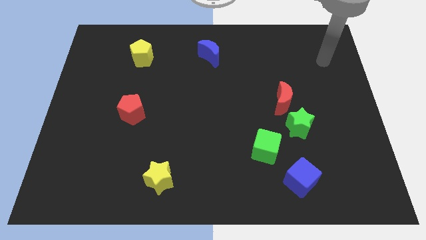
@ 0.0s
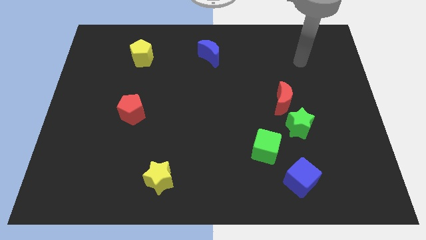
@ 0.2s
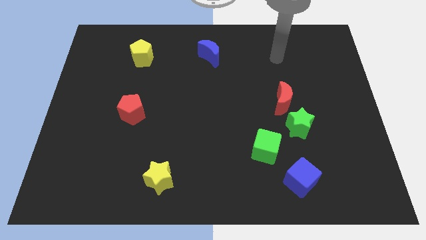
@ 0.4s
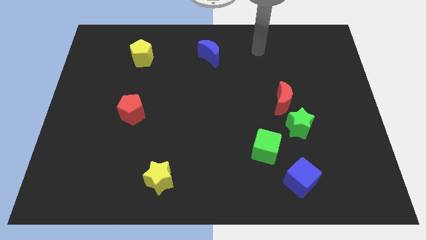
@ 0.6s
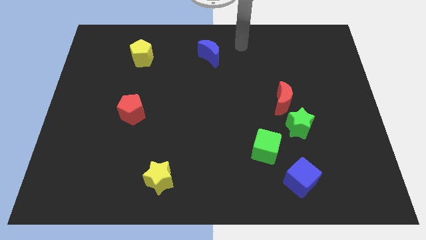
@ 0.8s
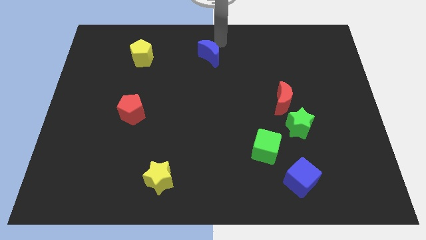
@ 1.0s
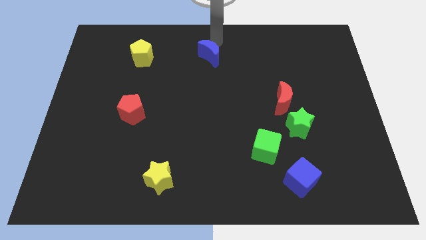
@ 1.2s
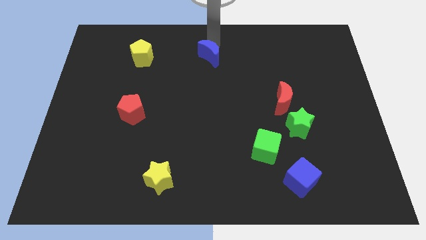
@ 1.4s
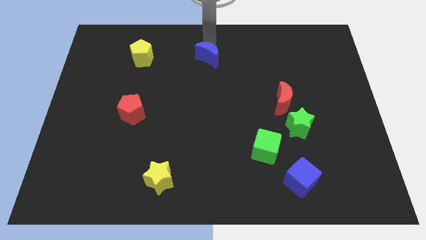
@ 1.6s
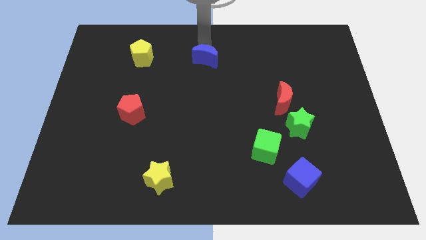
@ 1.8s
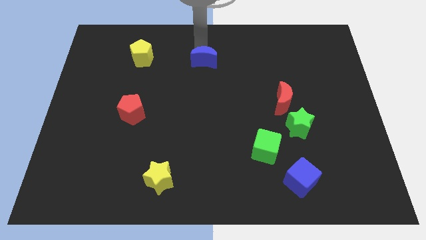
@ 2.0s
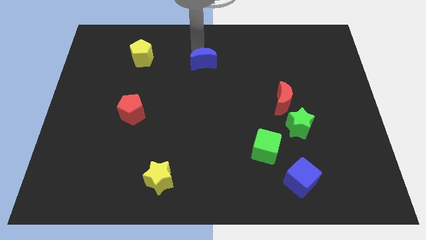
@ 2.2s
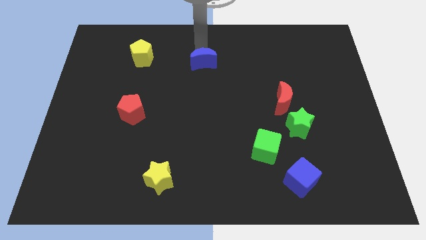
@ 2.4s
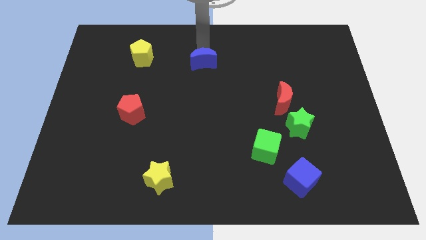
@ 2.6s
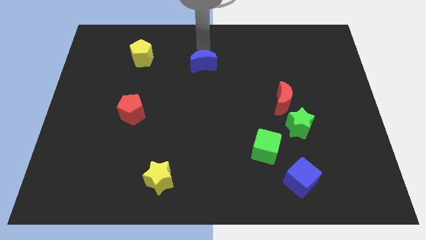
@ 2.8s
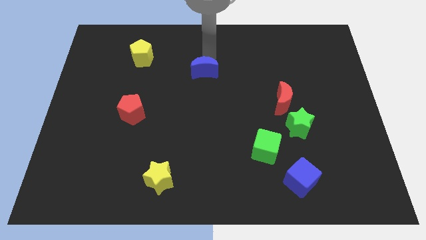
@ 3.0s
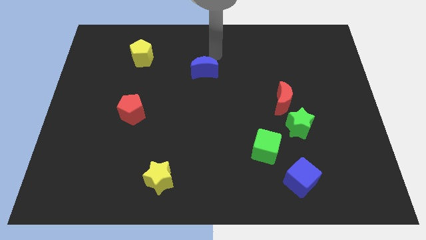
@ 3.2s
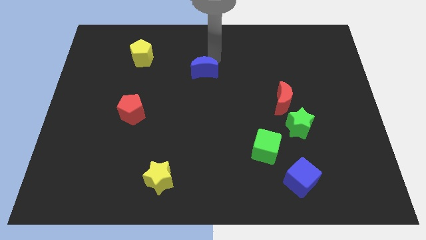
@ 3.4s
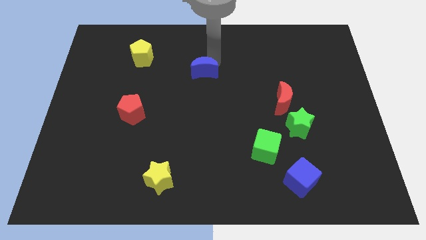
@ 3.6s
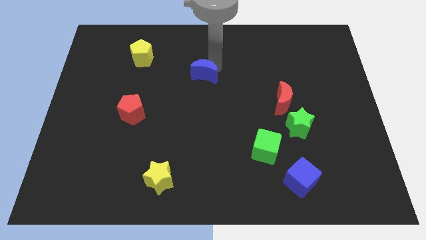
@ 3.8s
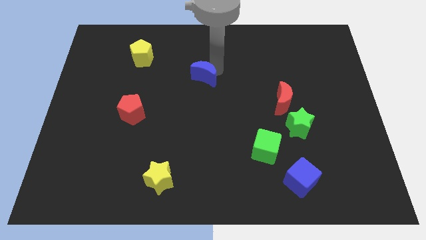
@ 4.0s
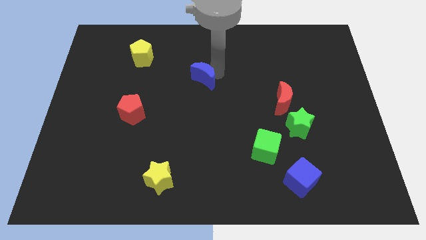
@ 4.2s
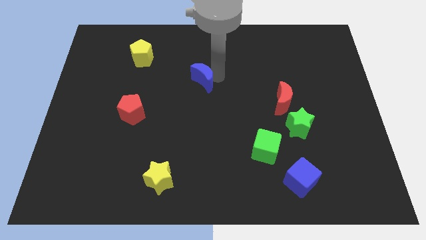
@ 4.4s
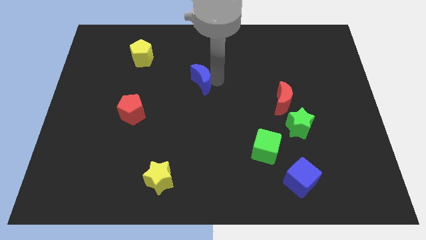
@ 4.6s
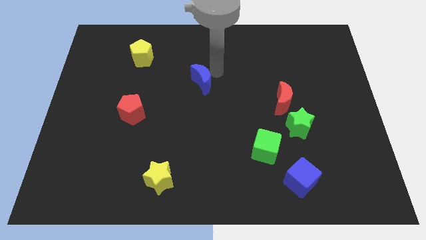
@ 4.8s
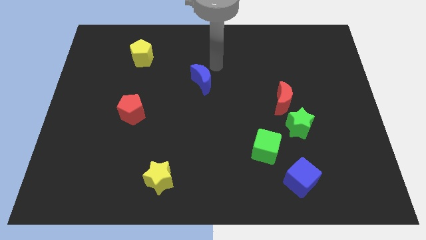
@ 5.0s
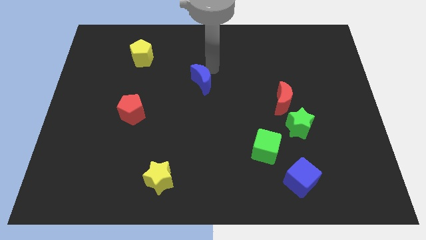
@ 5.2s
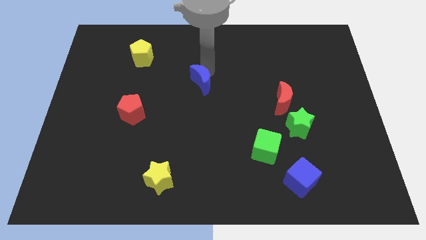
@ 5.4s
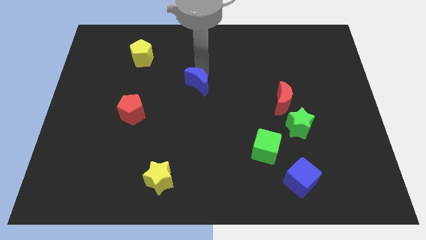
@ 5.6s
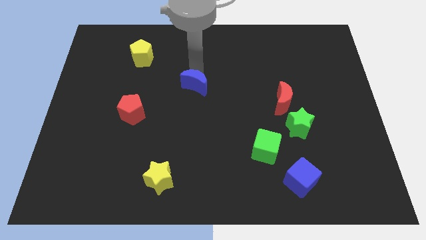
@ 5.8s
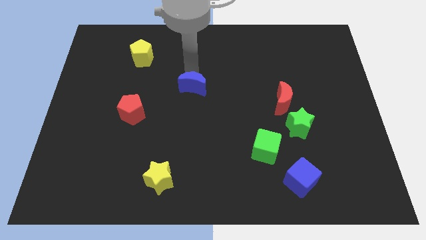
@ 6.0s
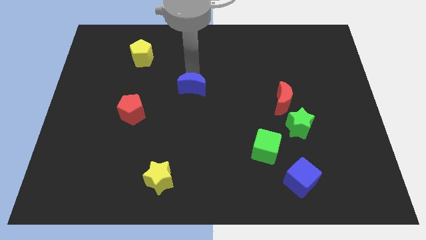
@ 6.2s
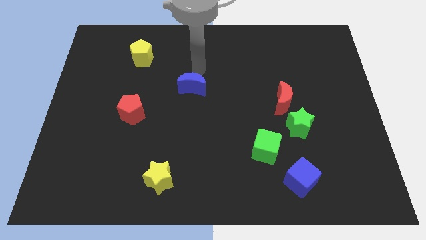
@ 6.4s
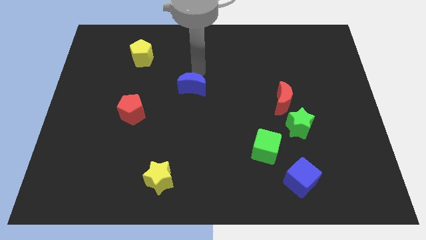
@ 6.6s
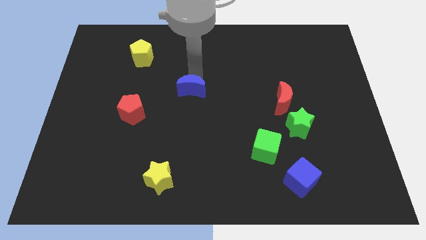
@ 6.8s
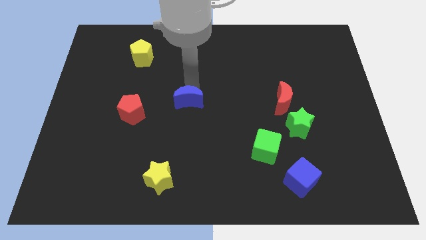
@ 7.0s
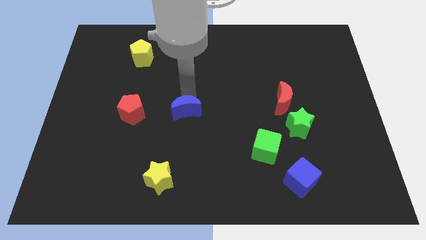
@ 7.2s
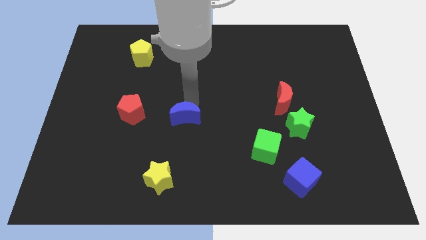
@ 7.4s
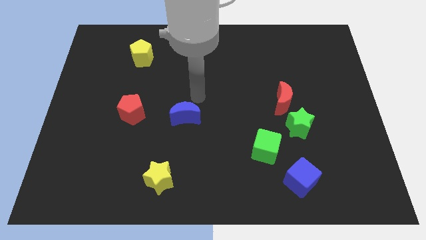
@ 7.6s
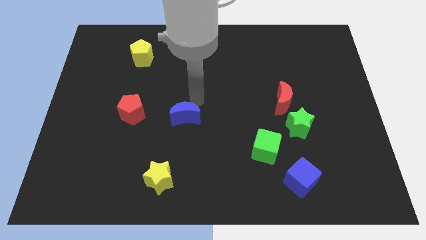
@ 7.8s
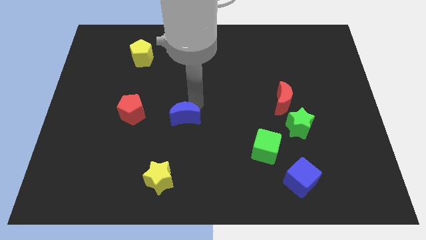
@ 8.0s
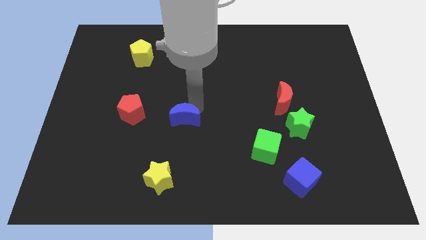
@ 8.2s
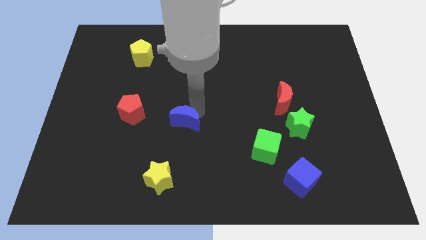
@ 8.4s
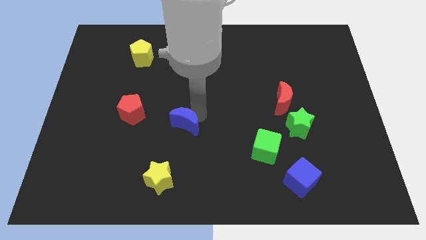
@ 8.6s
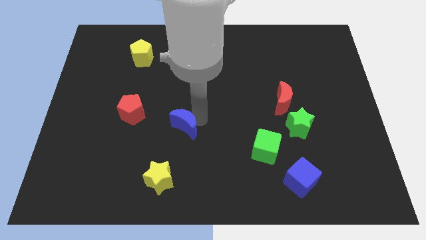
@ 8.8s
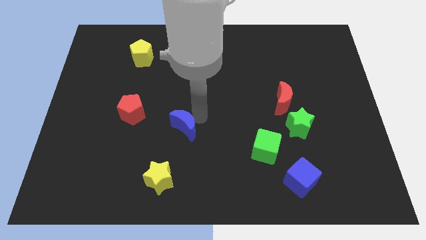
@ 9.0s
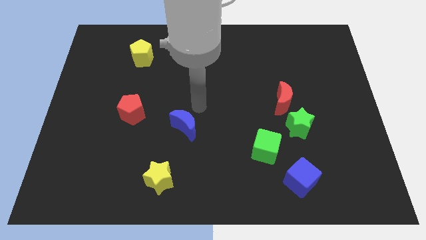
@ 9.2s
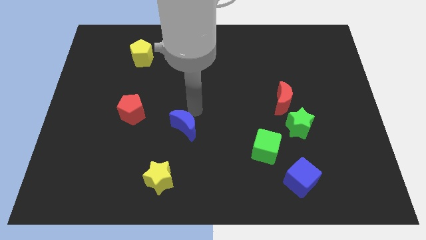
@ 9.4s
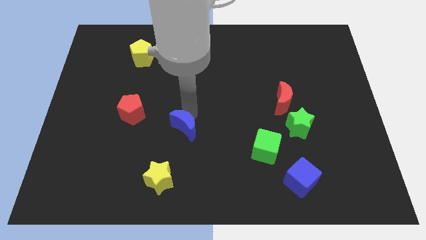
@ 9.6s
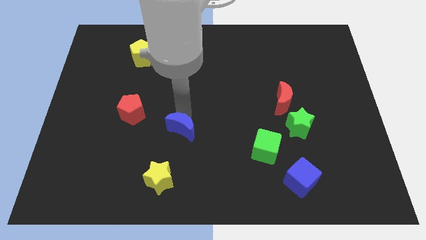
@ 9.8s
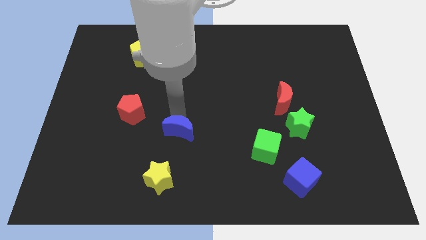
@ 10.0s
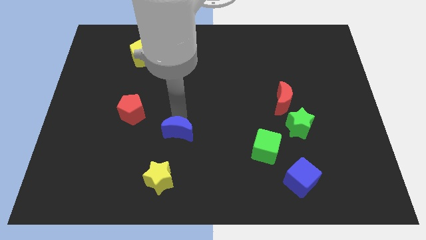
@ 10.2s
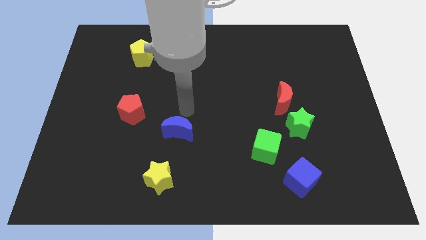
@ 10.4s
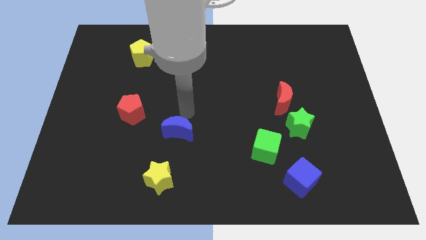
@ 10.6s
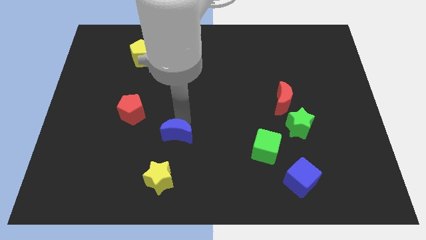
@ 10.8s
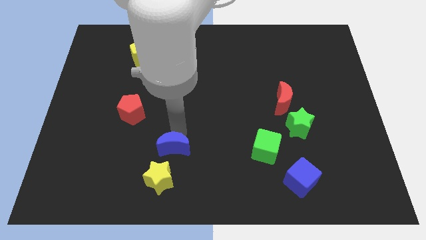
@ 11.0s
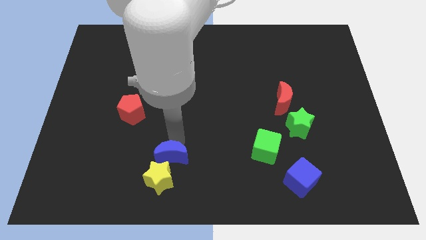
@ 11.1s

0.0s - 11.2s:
slide the blue moon towards the yellow star
